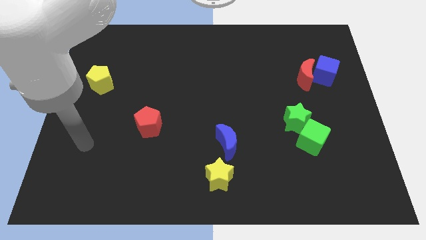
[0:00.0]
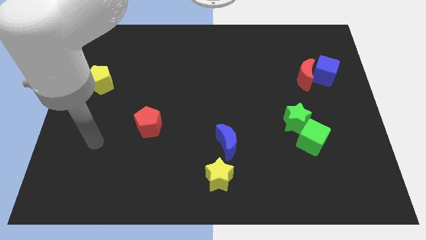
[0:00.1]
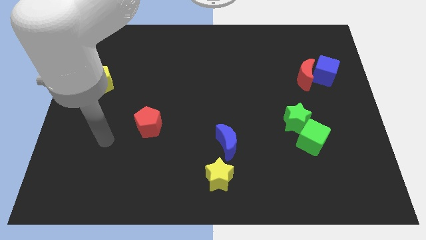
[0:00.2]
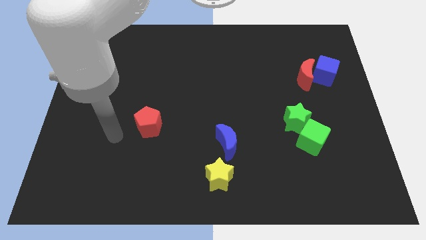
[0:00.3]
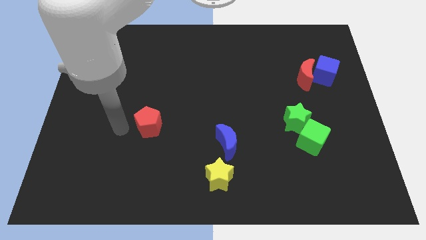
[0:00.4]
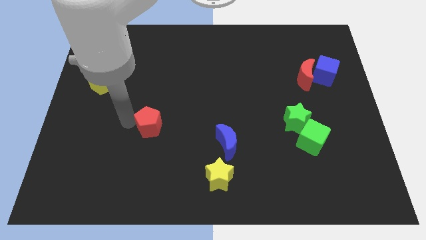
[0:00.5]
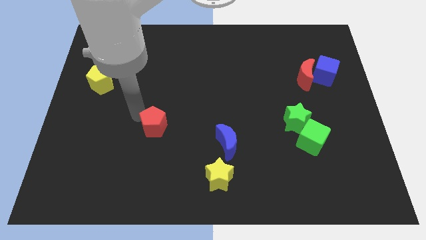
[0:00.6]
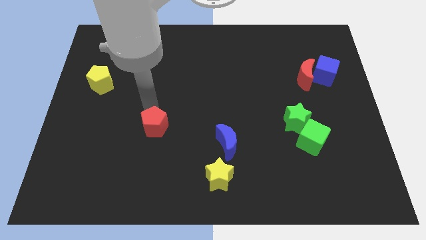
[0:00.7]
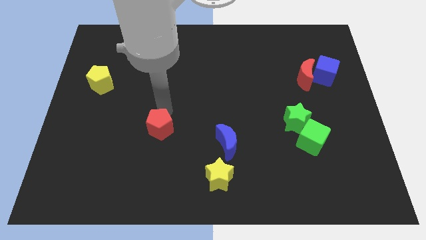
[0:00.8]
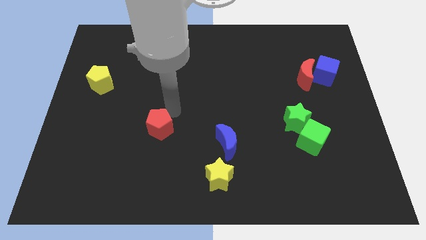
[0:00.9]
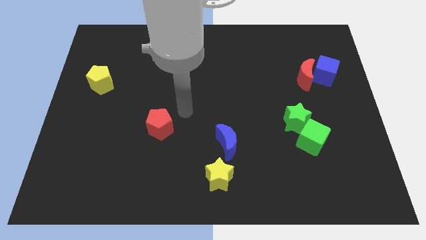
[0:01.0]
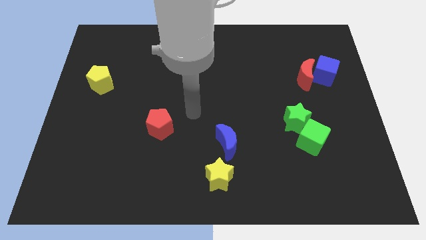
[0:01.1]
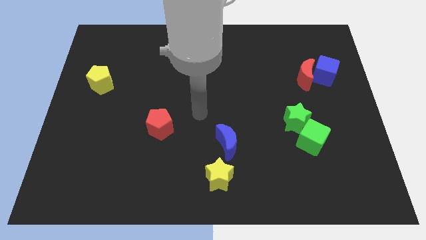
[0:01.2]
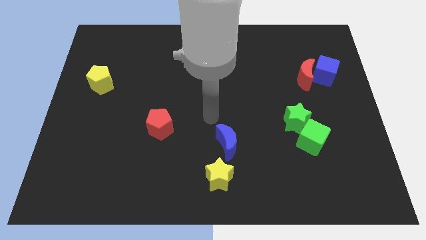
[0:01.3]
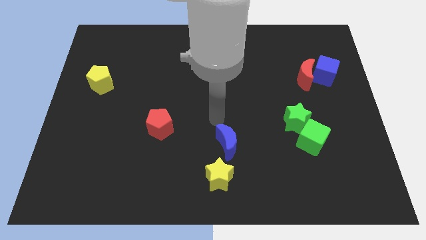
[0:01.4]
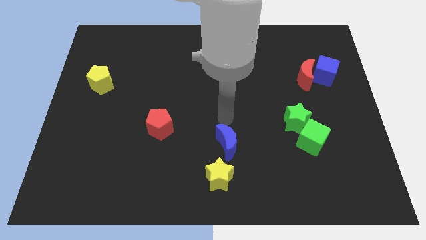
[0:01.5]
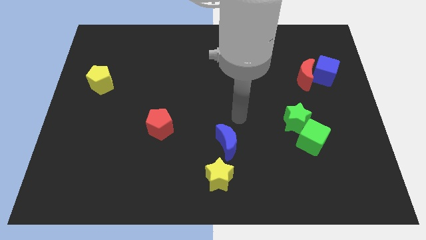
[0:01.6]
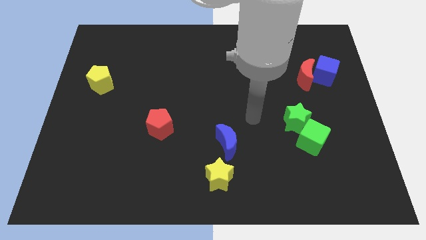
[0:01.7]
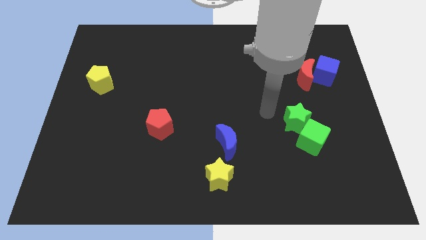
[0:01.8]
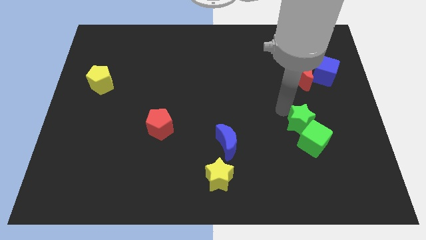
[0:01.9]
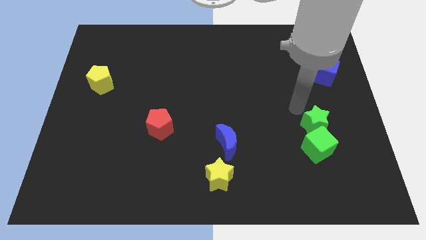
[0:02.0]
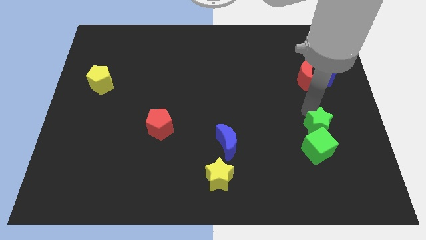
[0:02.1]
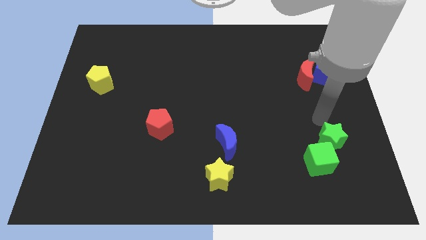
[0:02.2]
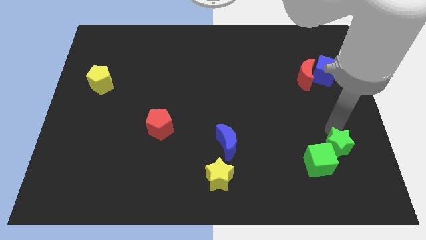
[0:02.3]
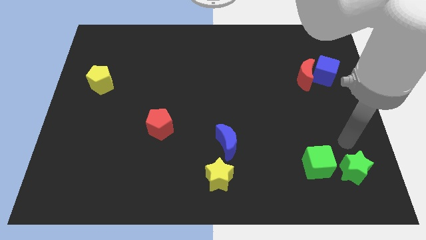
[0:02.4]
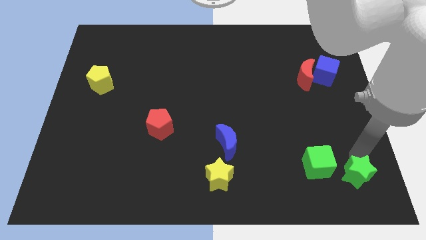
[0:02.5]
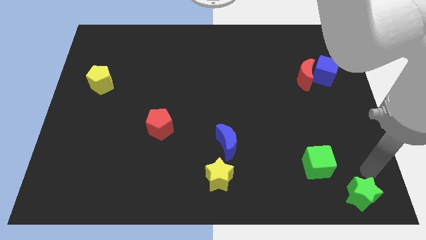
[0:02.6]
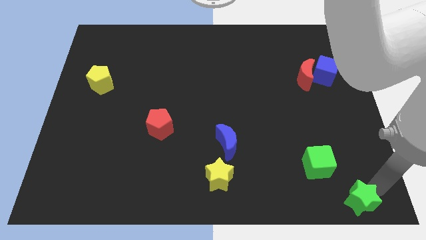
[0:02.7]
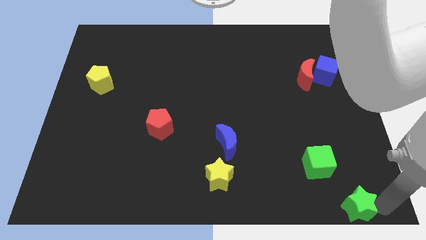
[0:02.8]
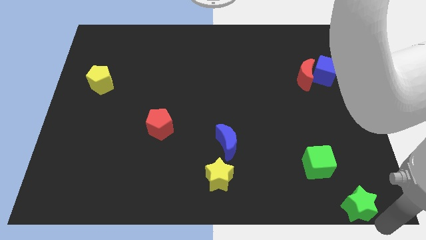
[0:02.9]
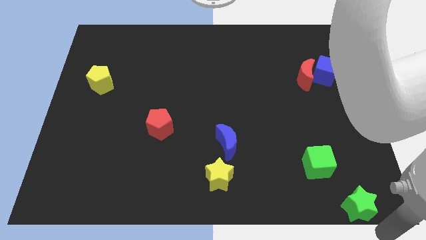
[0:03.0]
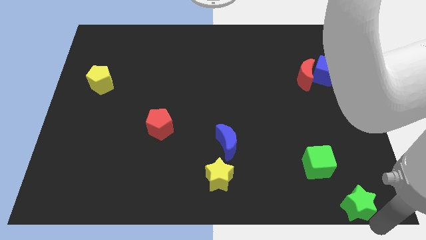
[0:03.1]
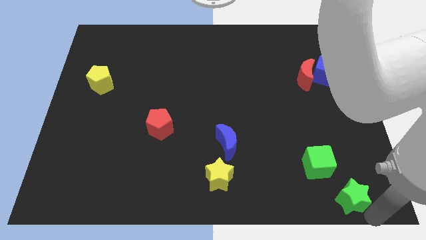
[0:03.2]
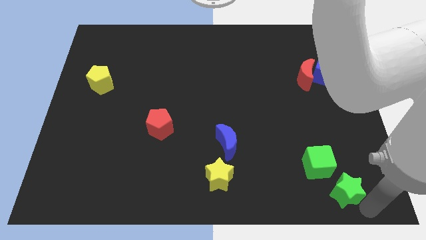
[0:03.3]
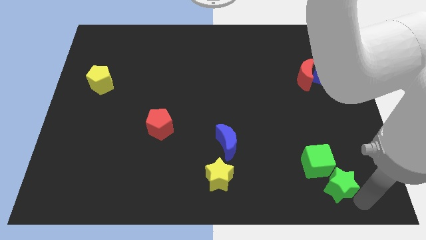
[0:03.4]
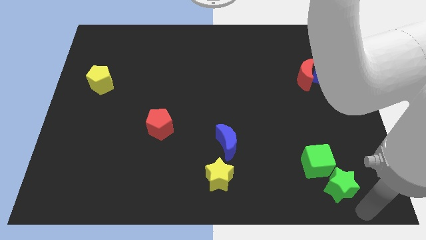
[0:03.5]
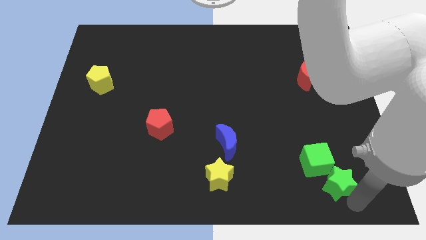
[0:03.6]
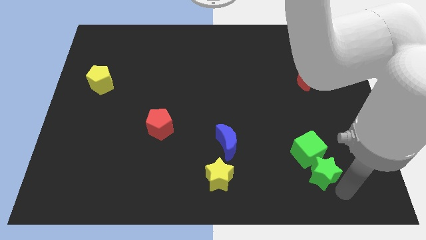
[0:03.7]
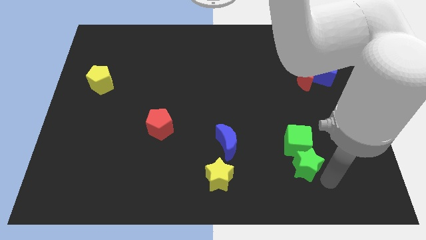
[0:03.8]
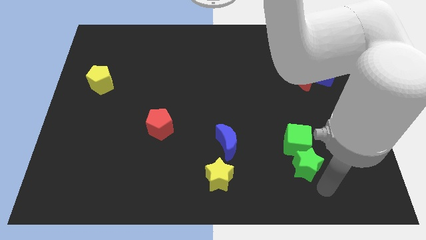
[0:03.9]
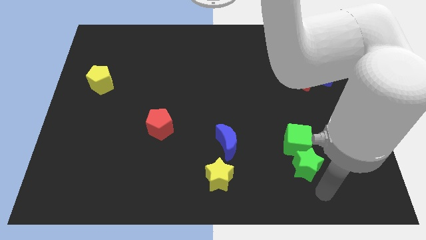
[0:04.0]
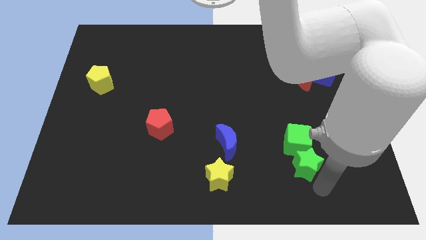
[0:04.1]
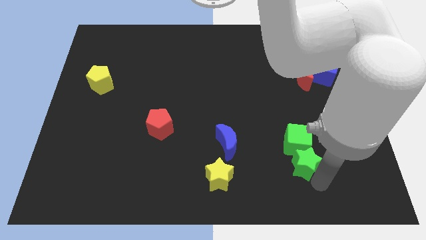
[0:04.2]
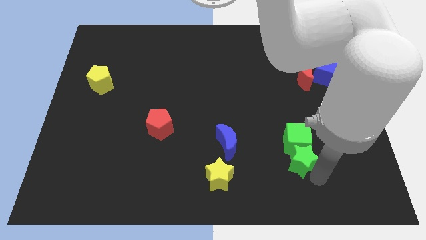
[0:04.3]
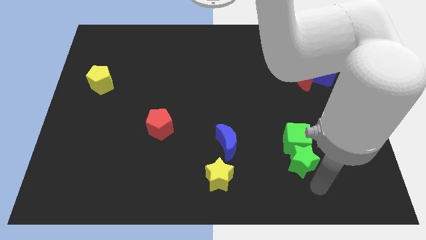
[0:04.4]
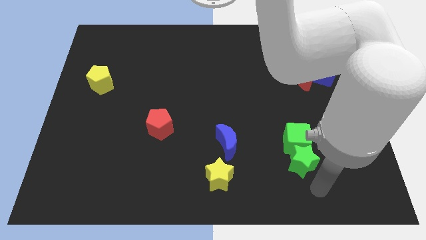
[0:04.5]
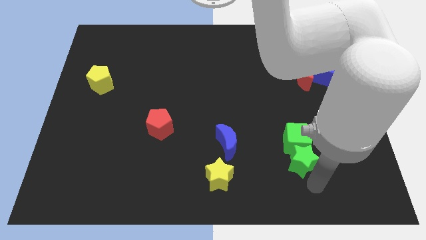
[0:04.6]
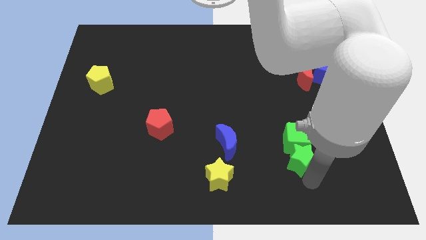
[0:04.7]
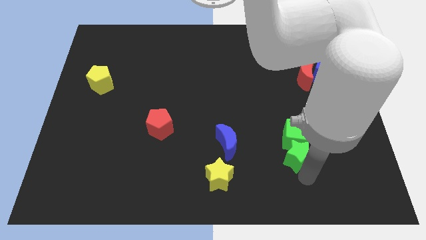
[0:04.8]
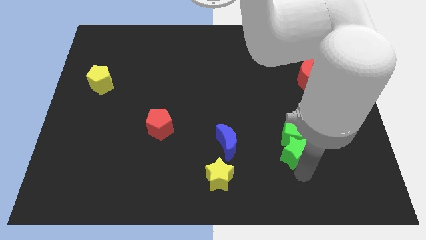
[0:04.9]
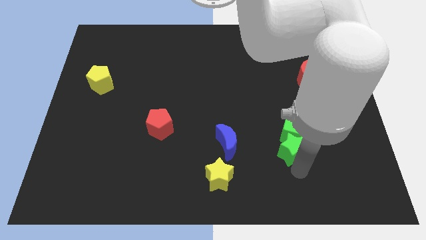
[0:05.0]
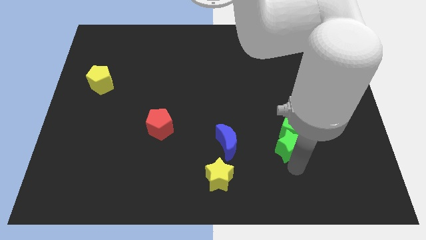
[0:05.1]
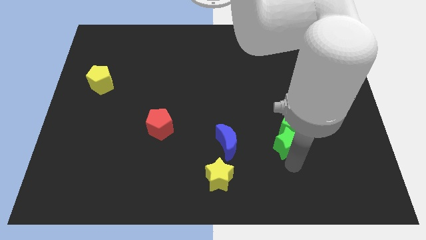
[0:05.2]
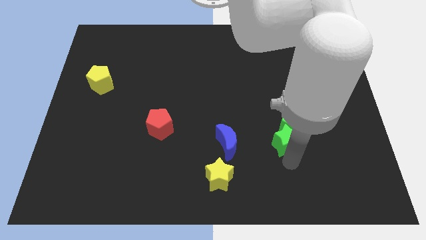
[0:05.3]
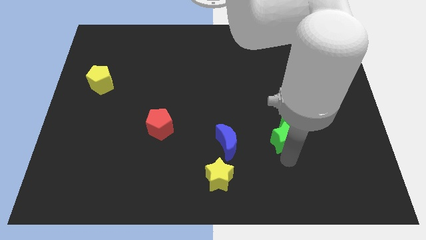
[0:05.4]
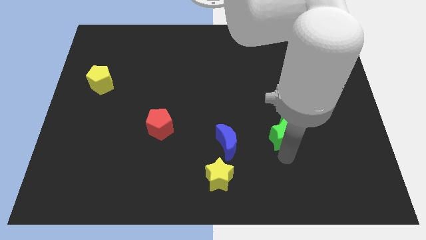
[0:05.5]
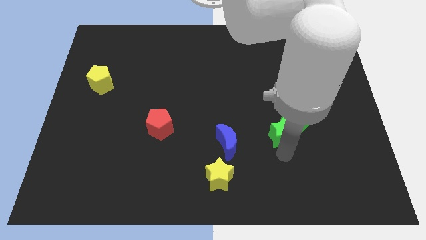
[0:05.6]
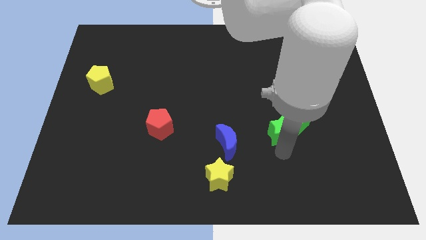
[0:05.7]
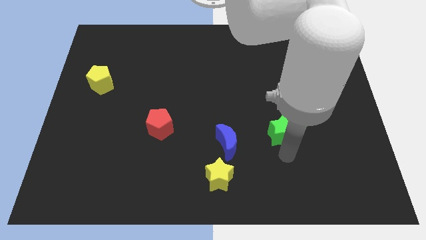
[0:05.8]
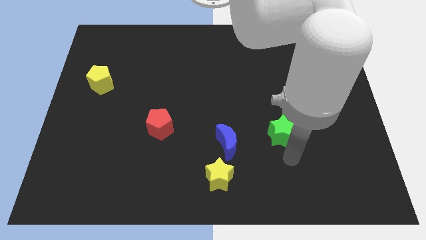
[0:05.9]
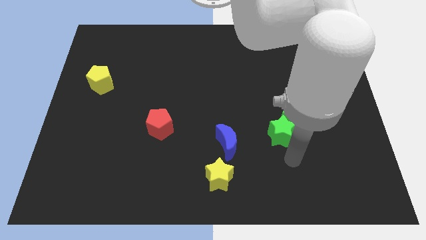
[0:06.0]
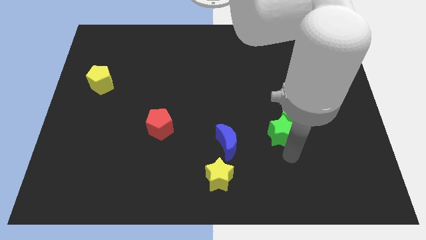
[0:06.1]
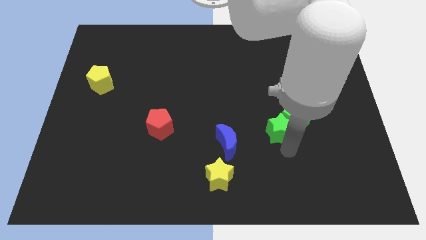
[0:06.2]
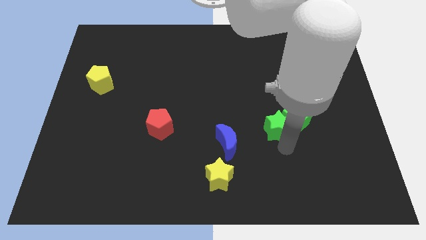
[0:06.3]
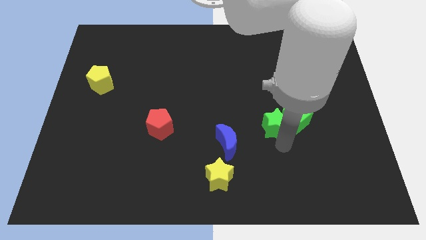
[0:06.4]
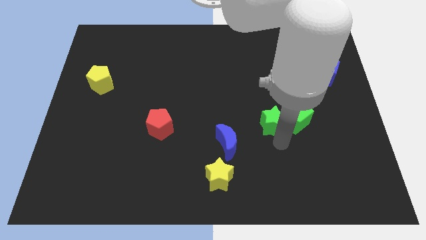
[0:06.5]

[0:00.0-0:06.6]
move the green star to the top right of the blue moon
